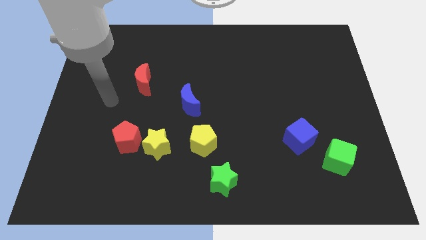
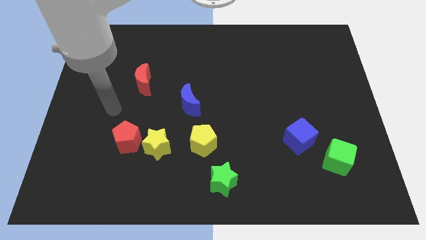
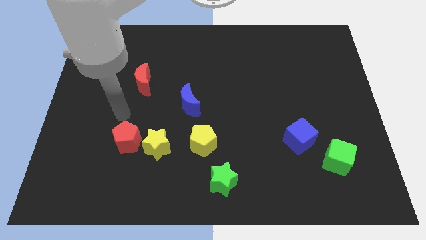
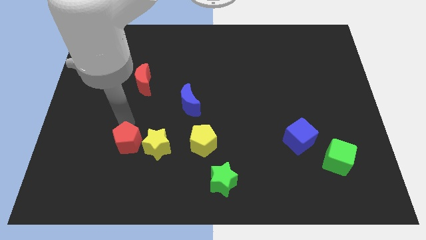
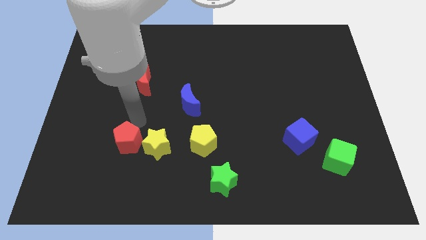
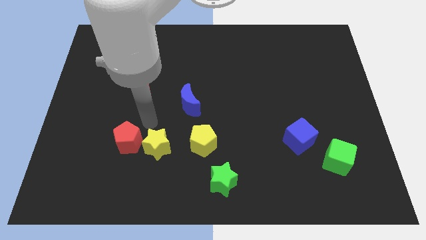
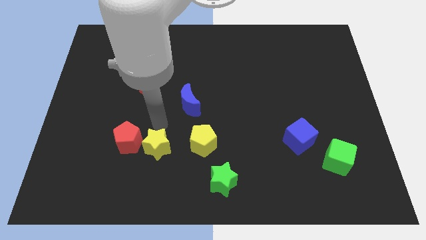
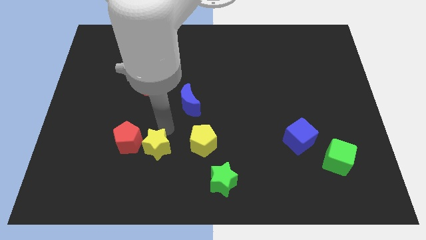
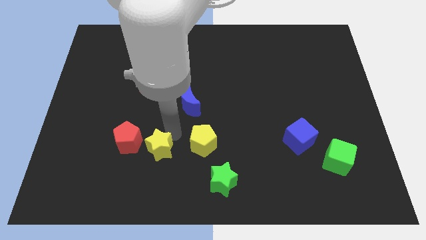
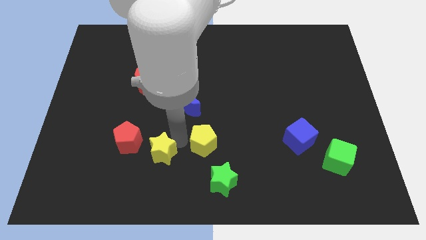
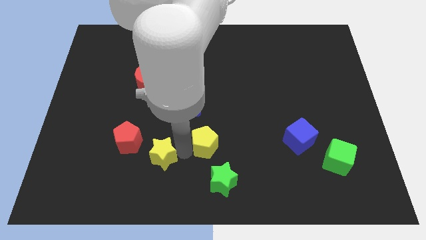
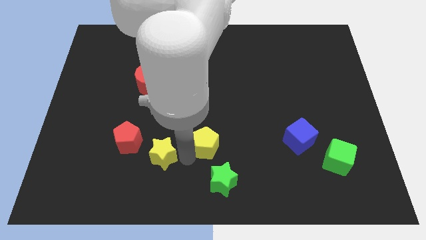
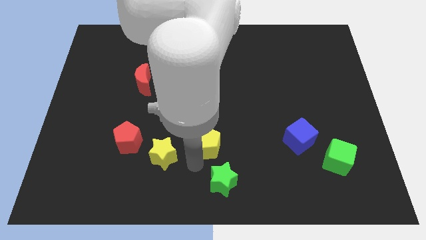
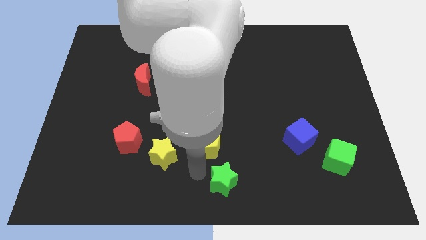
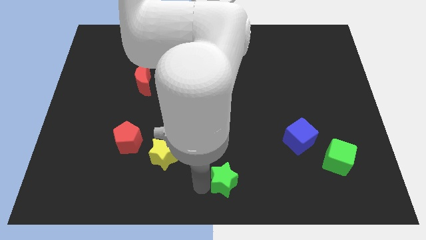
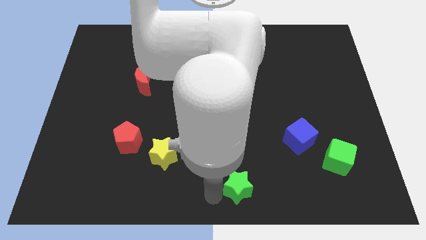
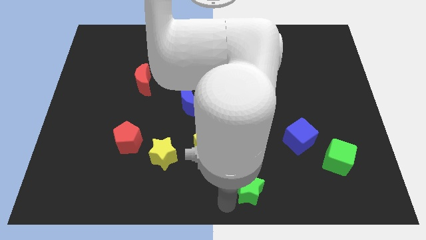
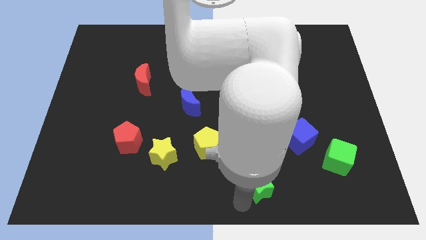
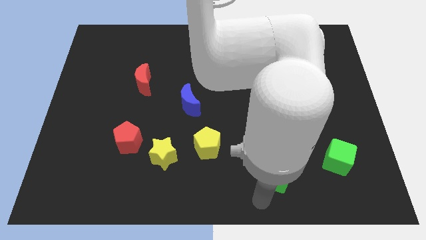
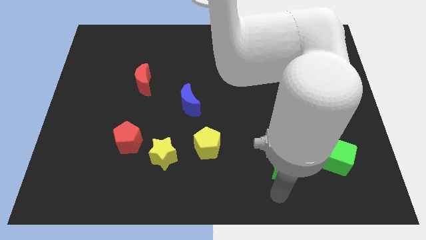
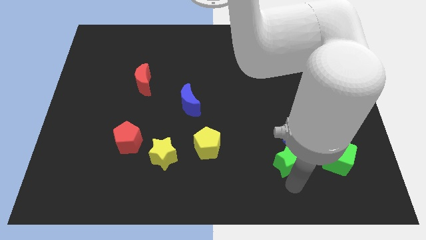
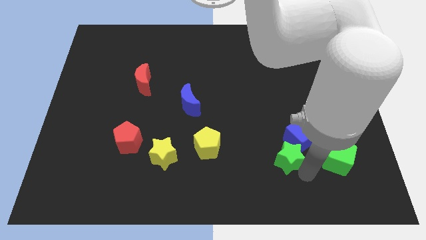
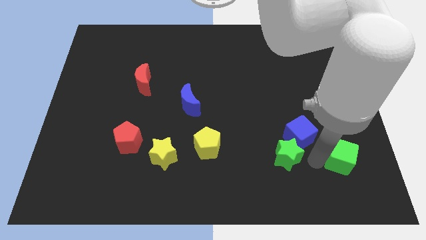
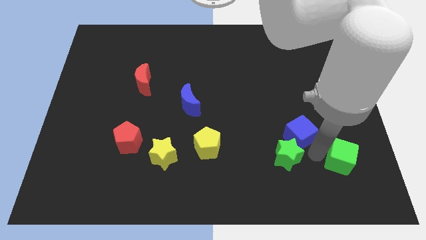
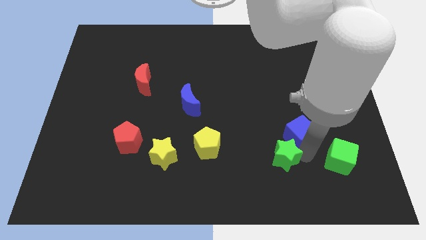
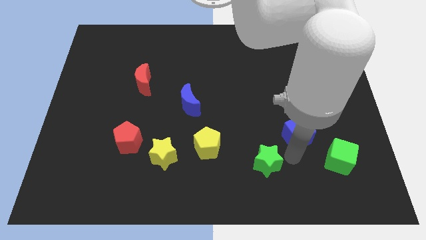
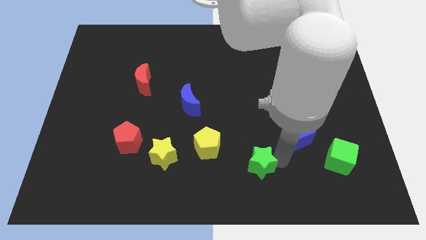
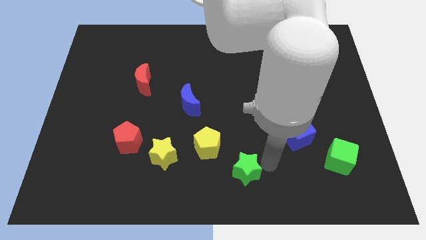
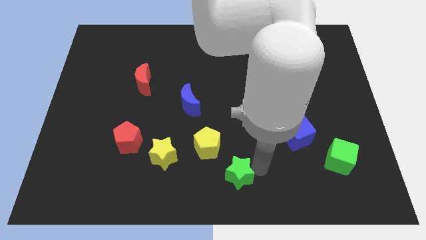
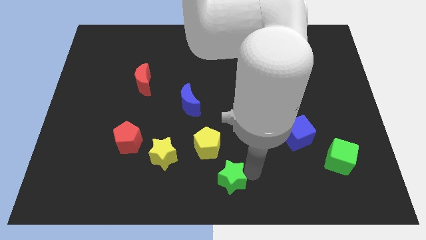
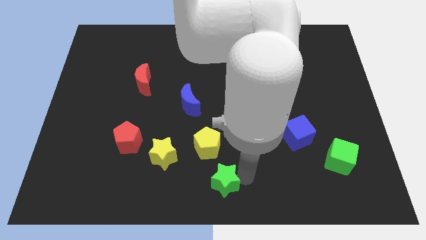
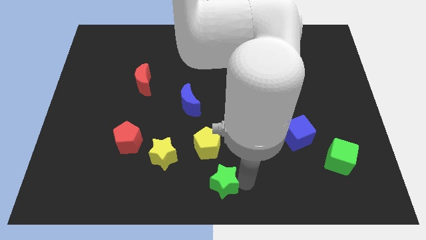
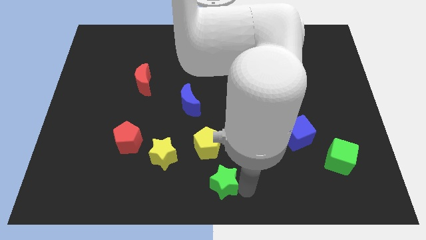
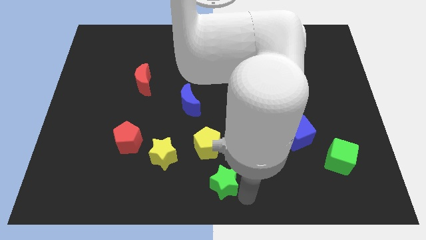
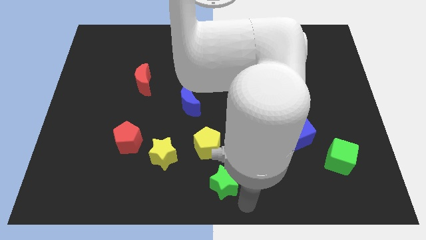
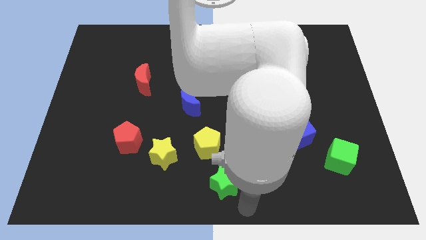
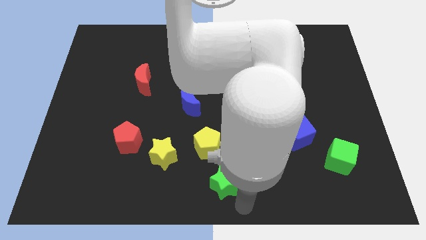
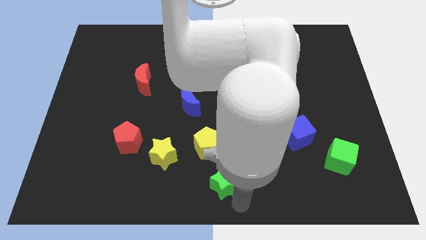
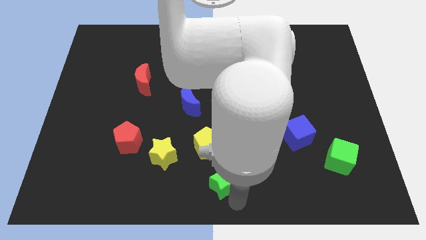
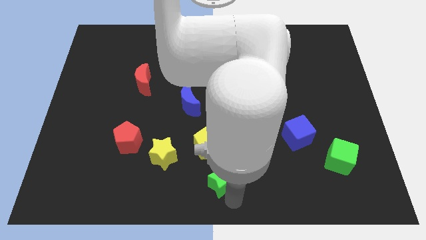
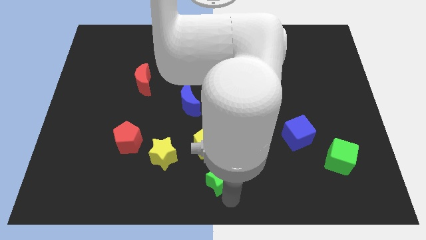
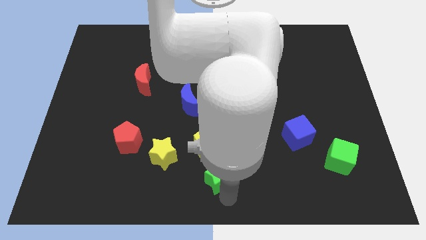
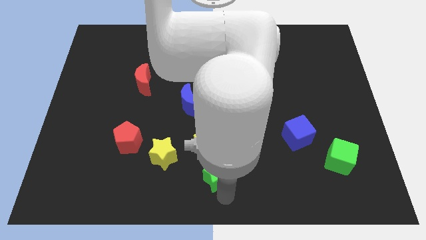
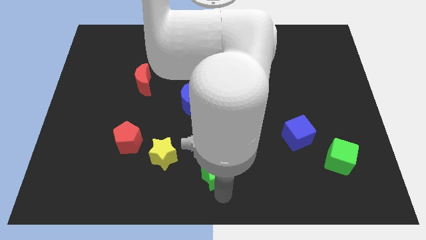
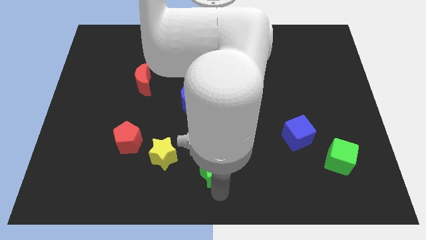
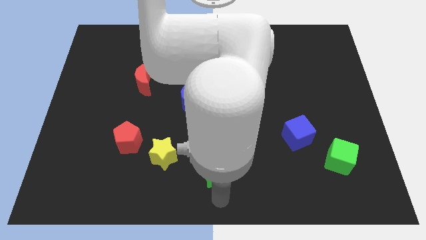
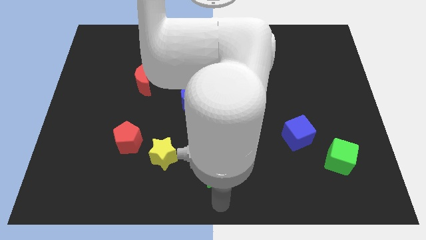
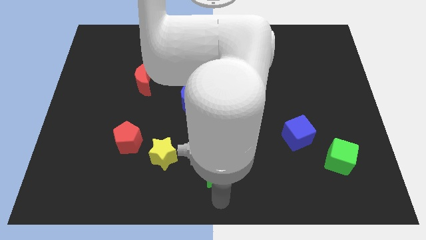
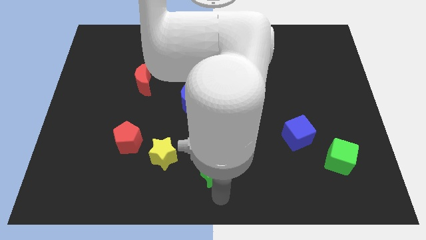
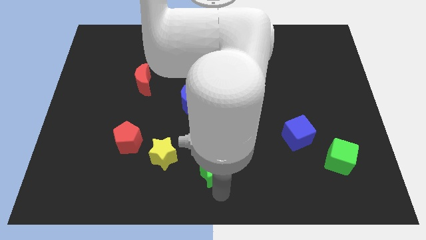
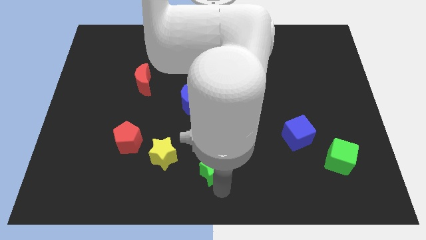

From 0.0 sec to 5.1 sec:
put the green star towards the yellow pentagon

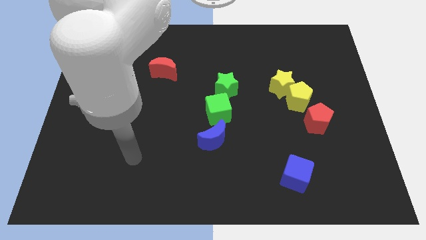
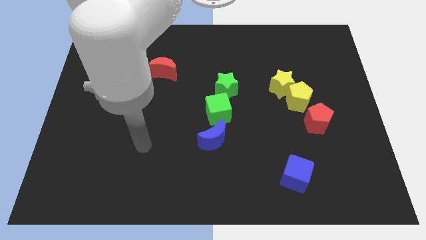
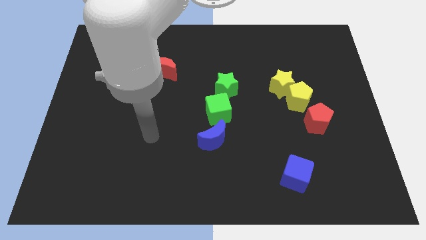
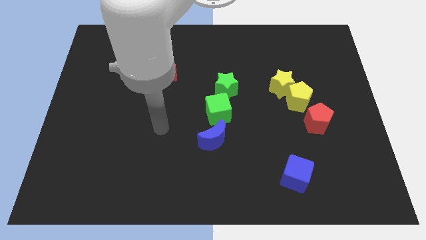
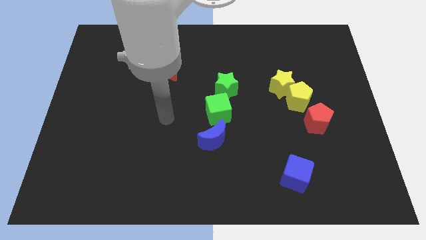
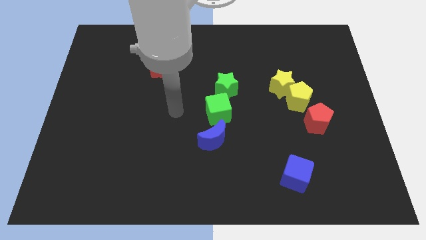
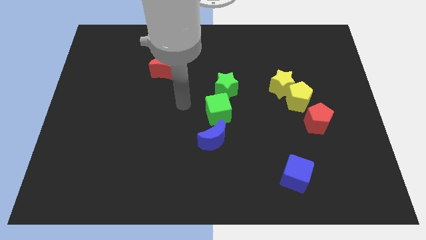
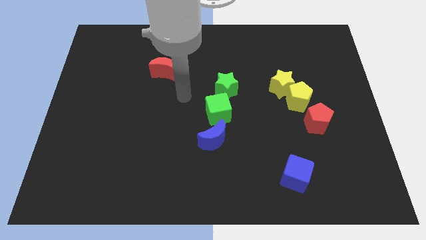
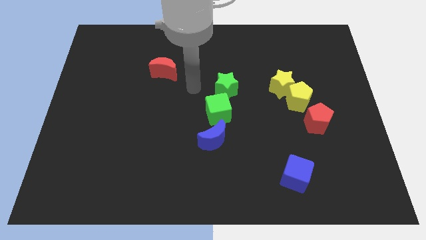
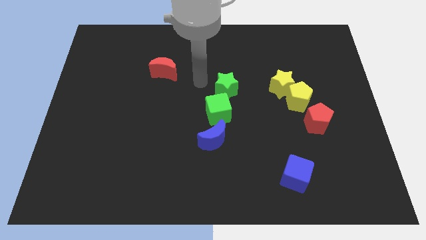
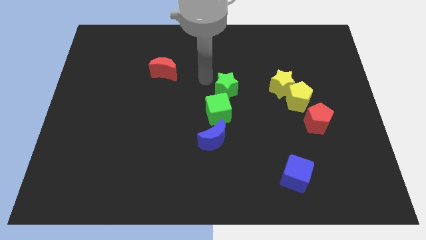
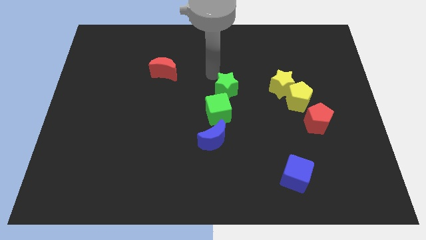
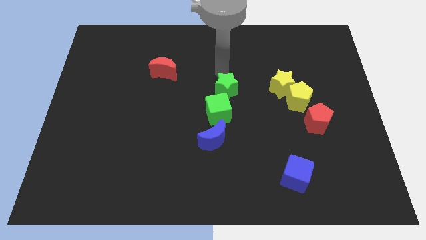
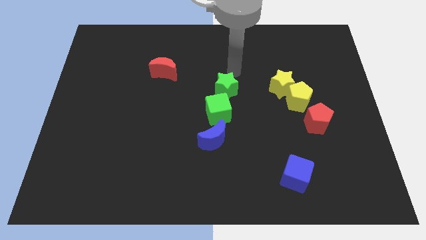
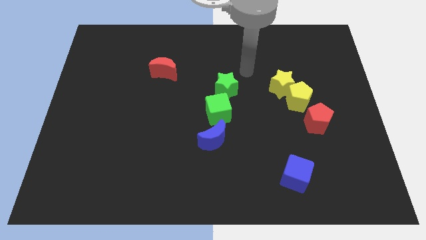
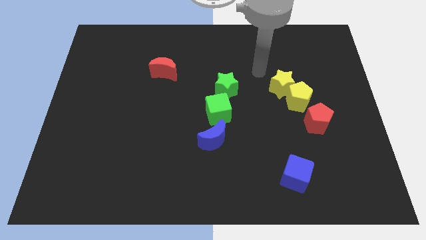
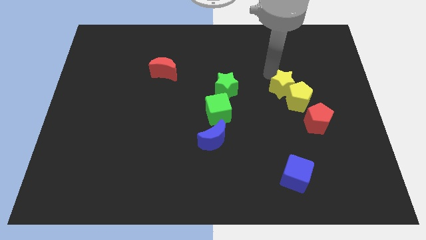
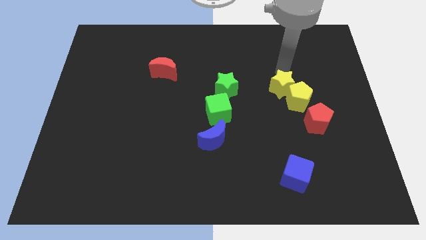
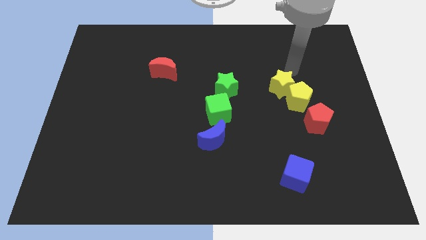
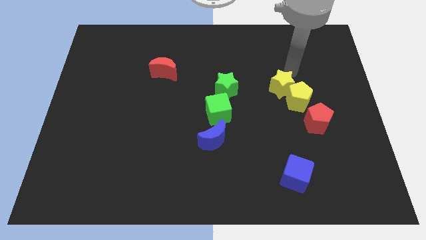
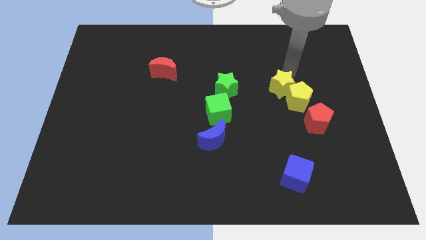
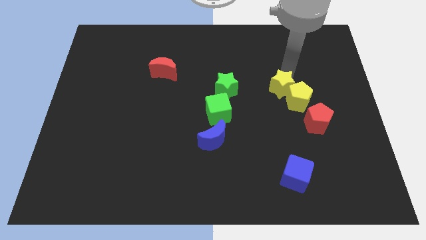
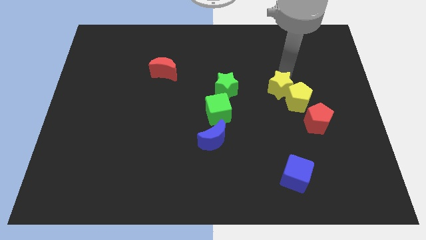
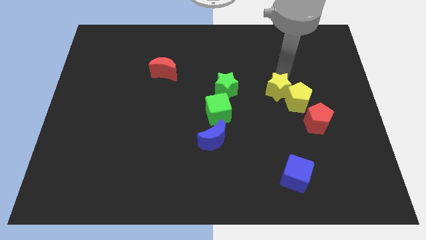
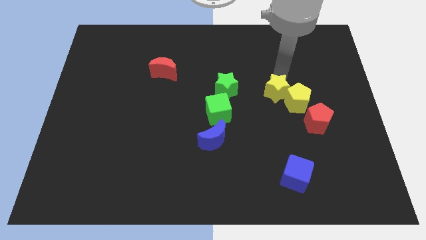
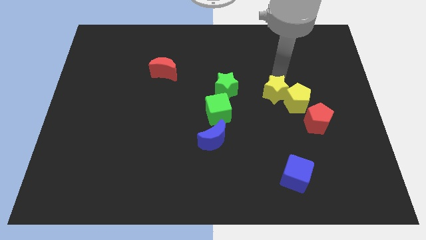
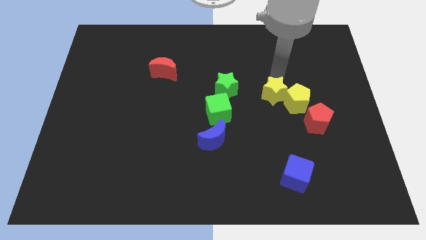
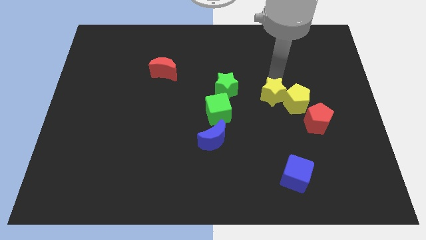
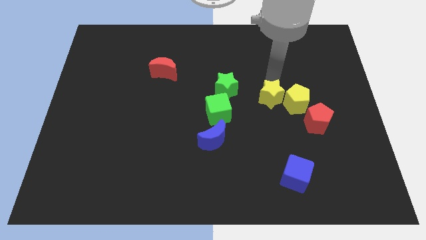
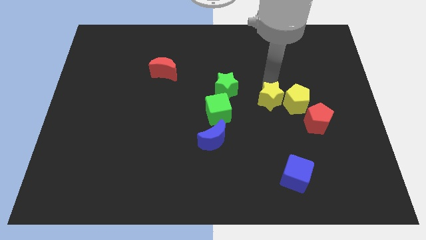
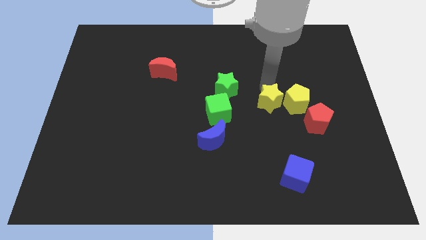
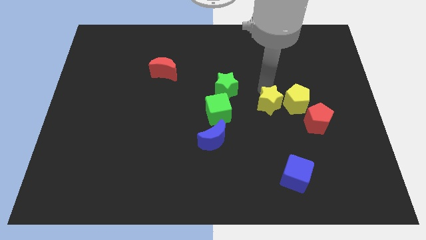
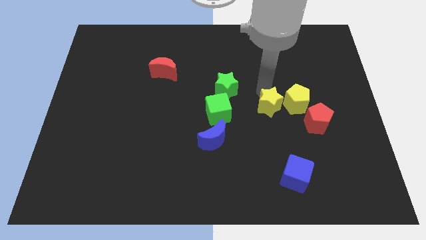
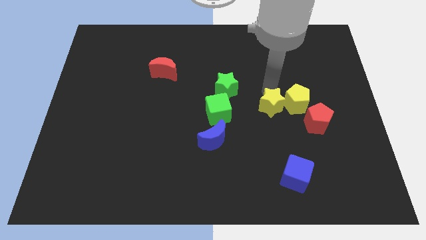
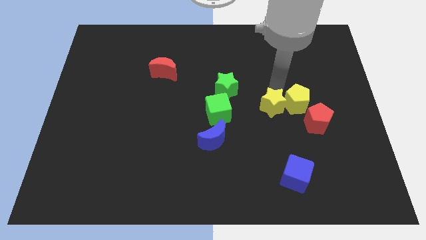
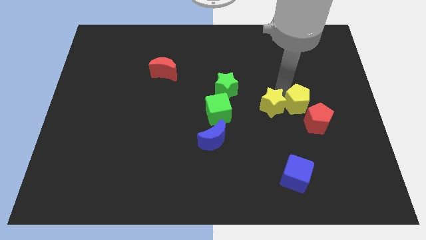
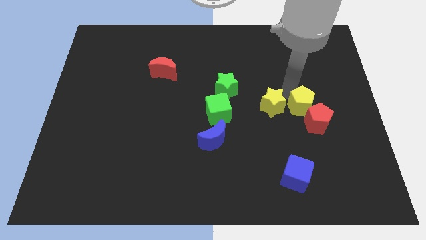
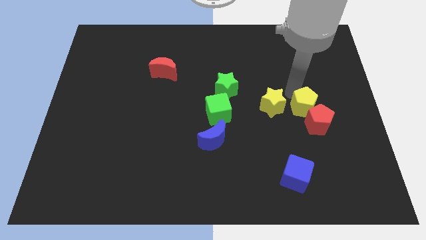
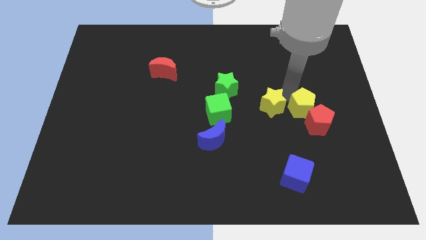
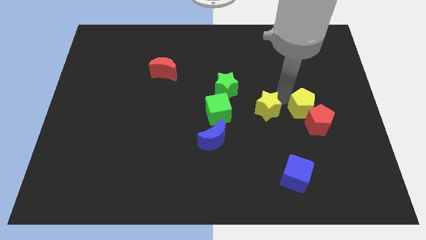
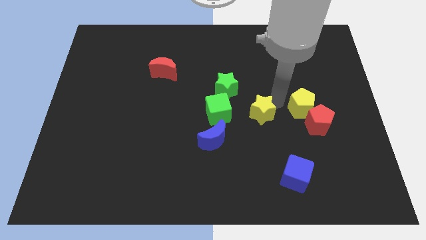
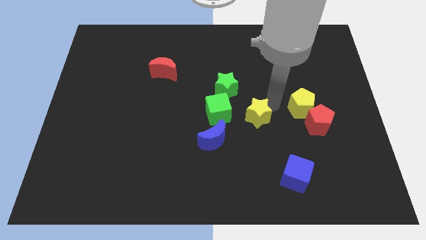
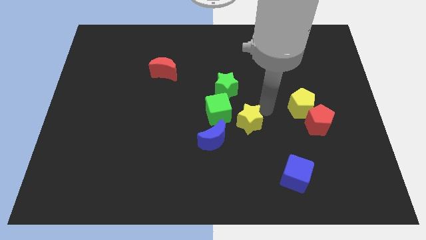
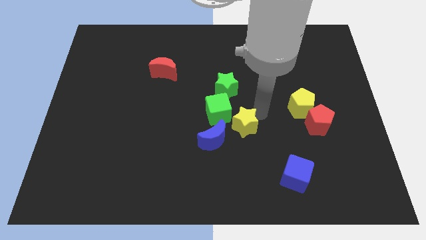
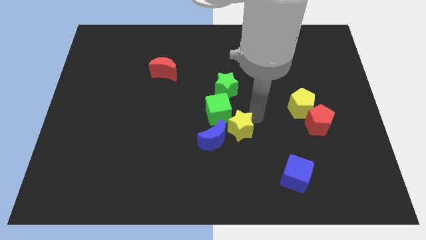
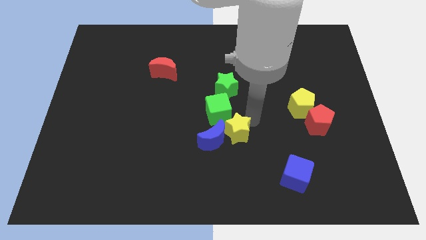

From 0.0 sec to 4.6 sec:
push the yellow star next to the blue moon
